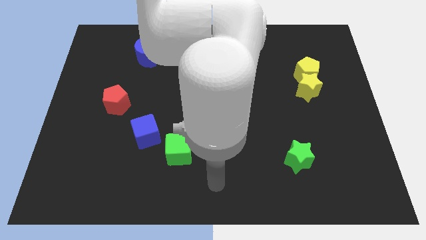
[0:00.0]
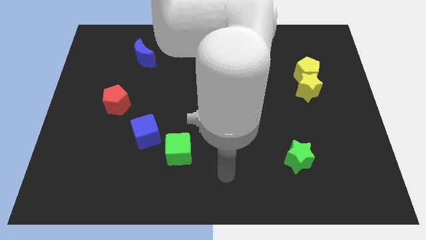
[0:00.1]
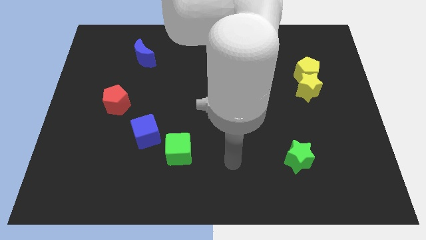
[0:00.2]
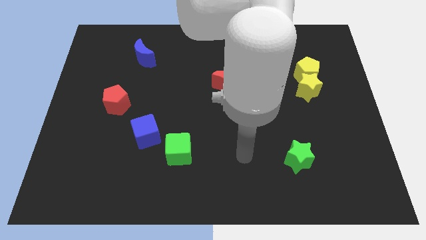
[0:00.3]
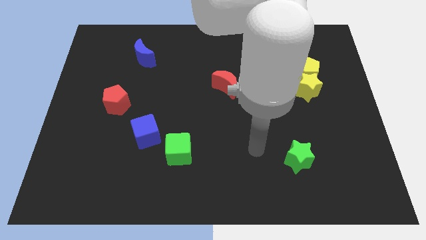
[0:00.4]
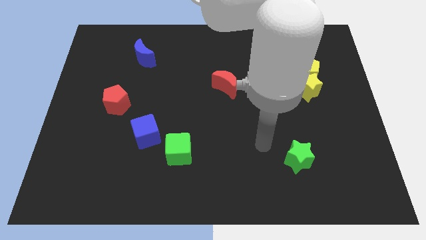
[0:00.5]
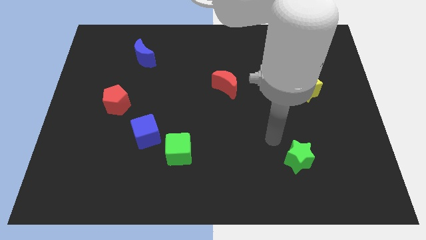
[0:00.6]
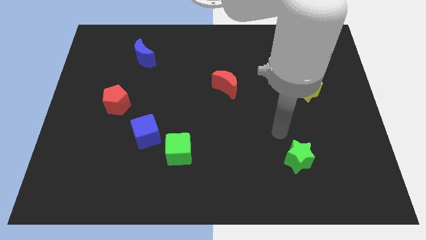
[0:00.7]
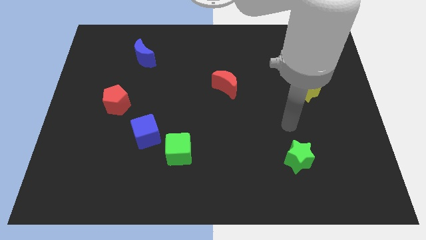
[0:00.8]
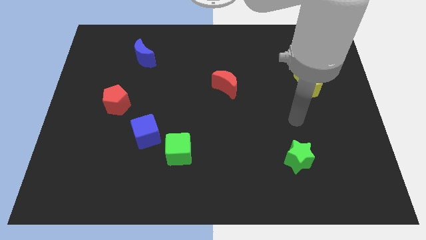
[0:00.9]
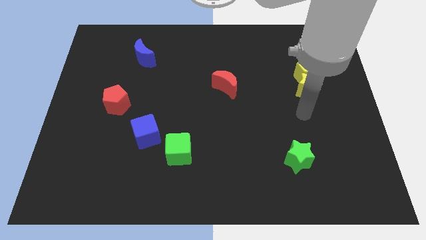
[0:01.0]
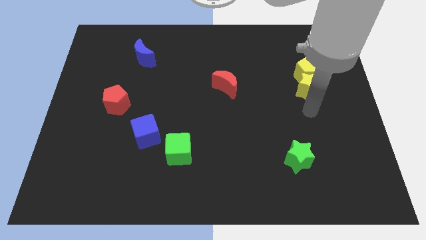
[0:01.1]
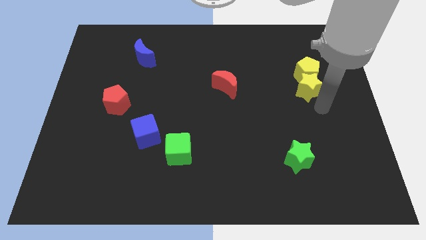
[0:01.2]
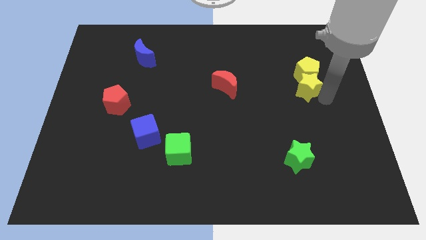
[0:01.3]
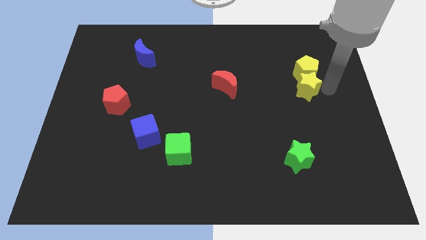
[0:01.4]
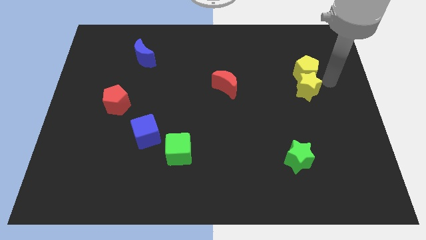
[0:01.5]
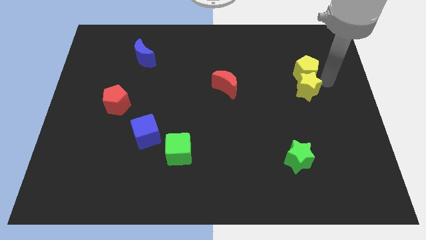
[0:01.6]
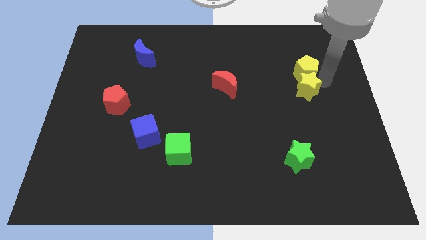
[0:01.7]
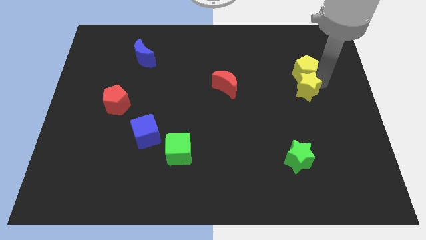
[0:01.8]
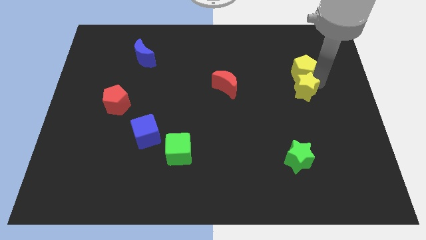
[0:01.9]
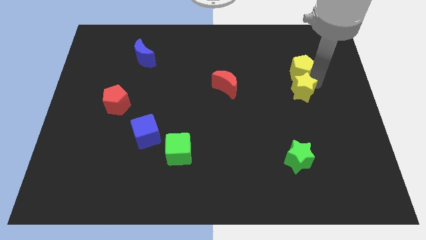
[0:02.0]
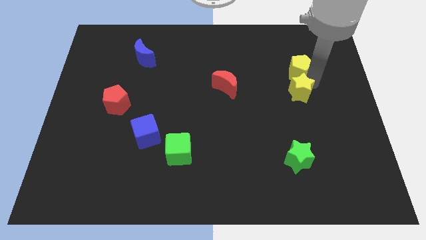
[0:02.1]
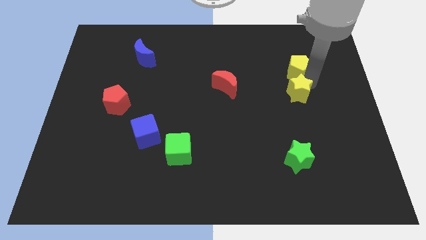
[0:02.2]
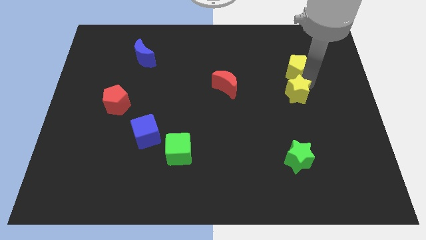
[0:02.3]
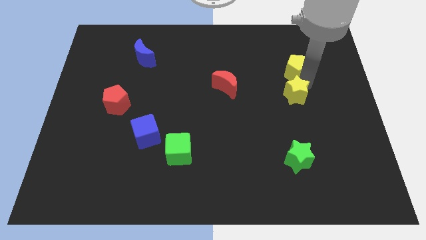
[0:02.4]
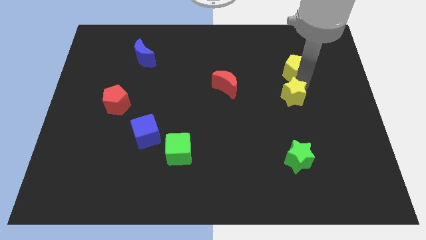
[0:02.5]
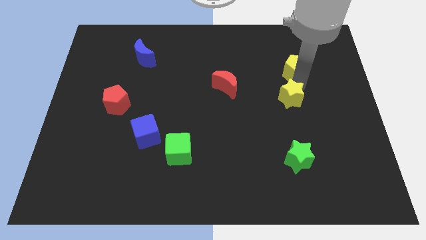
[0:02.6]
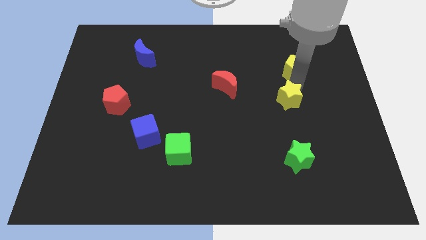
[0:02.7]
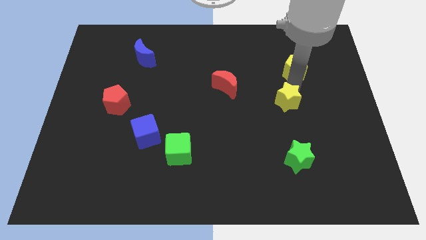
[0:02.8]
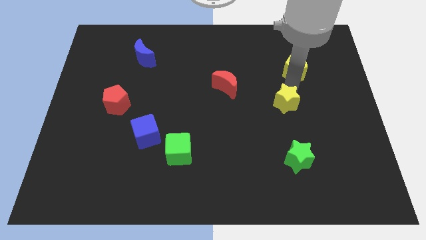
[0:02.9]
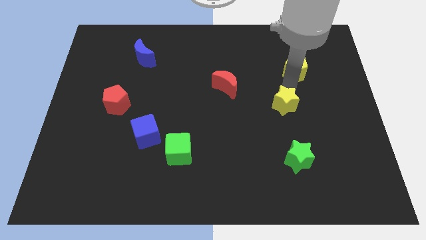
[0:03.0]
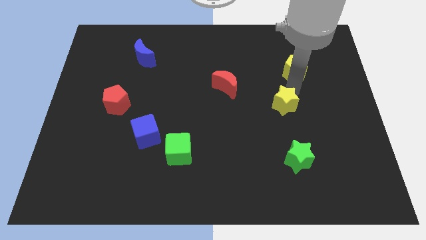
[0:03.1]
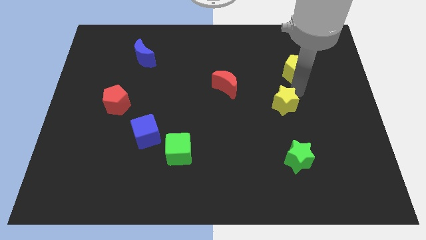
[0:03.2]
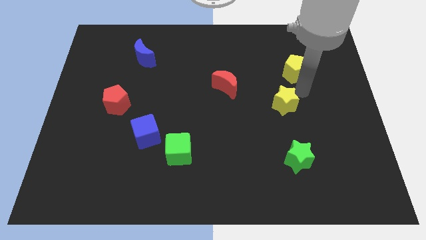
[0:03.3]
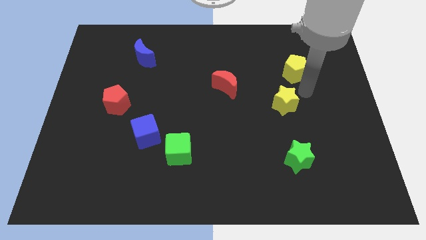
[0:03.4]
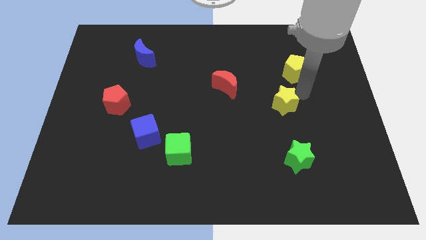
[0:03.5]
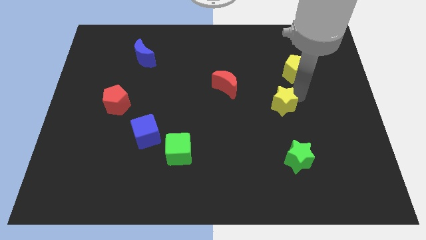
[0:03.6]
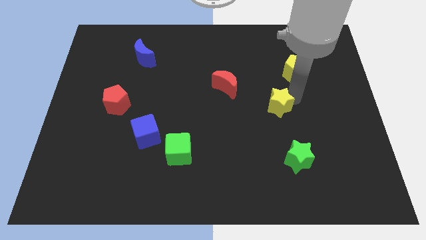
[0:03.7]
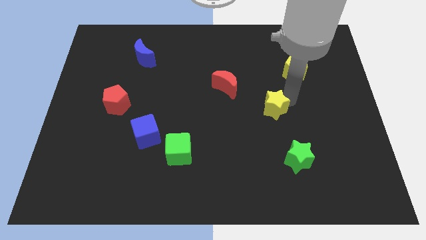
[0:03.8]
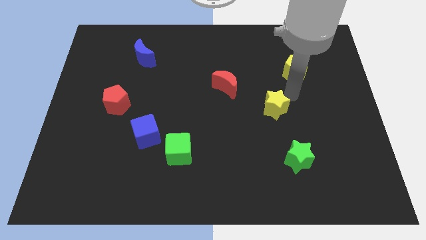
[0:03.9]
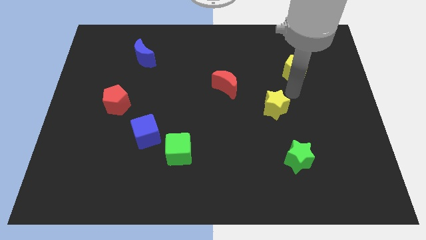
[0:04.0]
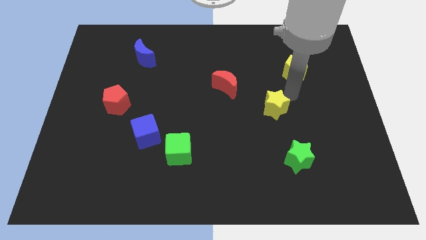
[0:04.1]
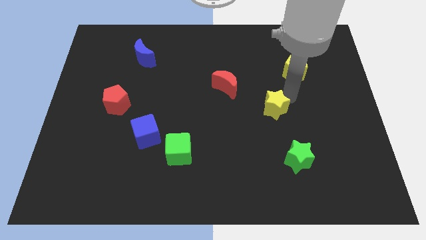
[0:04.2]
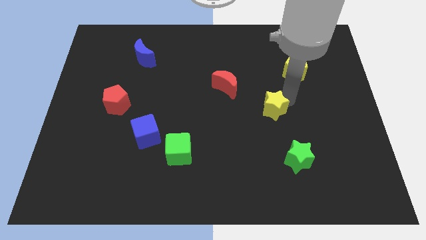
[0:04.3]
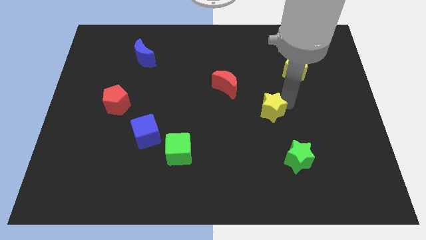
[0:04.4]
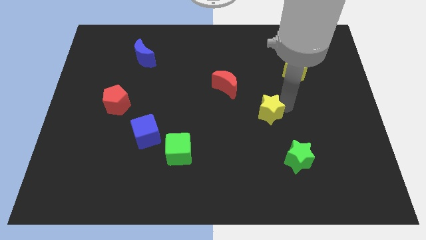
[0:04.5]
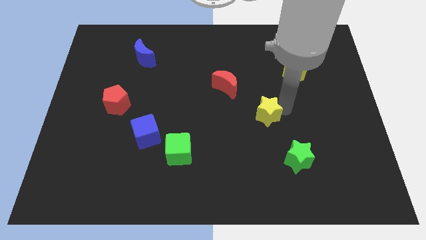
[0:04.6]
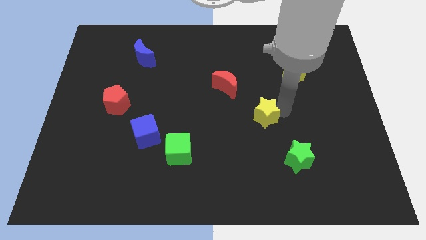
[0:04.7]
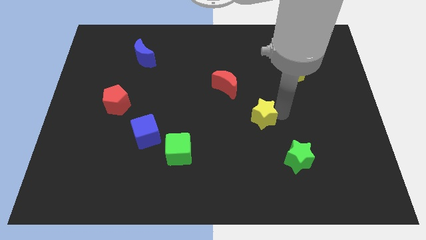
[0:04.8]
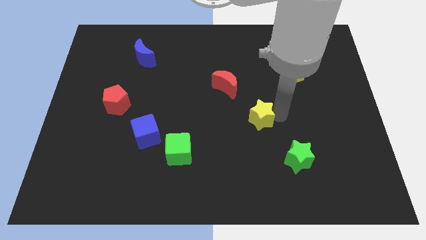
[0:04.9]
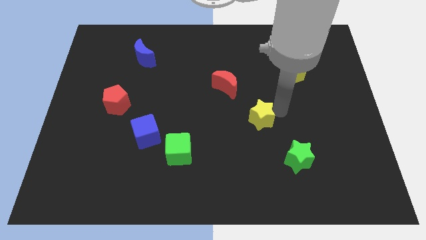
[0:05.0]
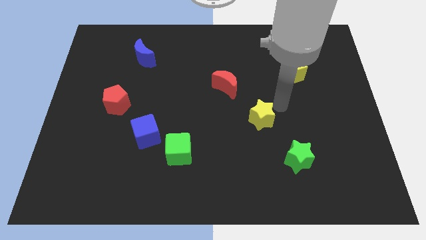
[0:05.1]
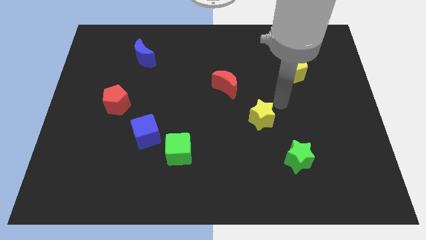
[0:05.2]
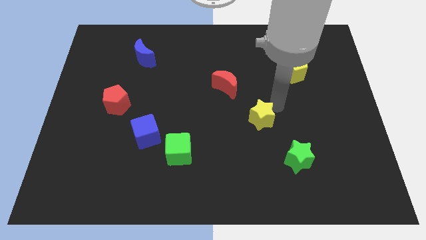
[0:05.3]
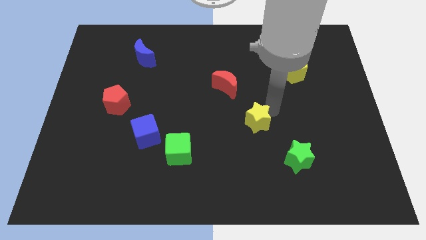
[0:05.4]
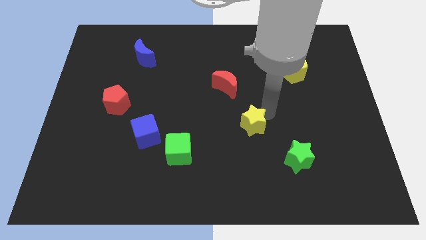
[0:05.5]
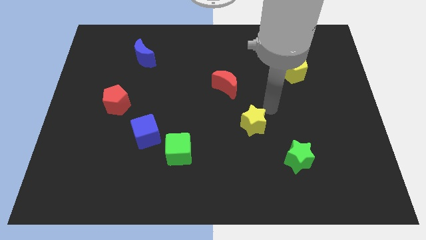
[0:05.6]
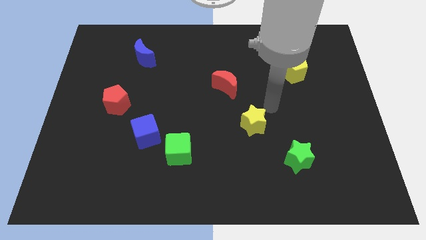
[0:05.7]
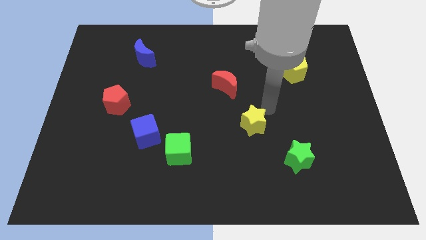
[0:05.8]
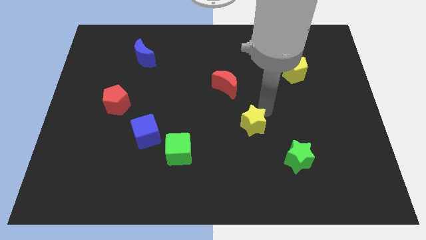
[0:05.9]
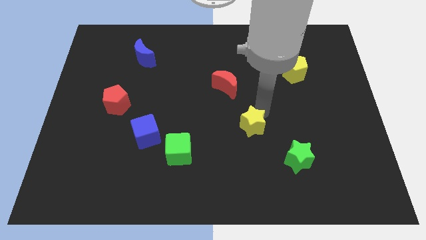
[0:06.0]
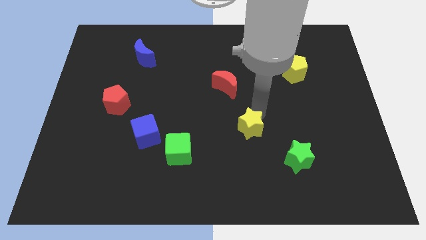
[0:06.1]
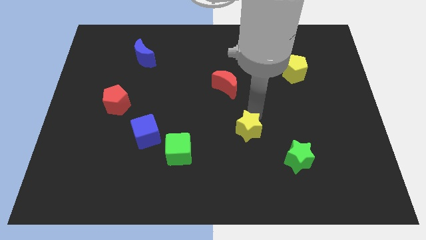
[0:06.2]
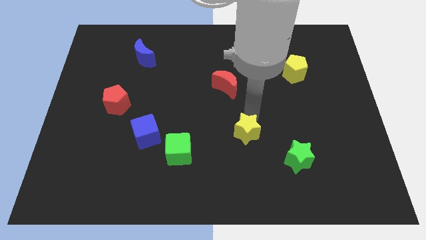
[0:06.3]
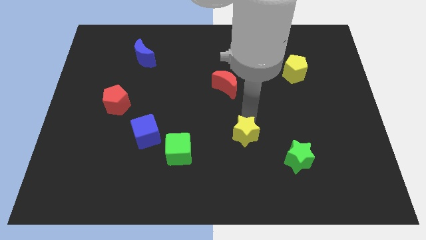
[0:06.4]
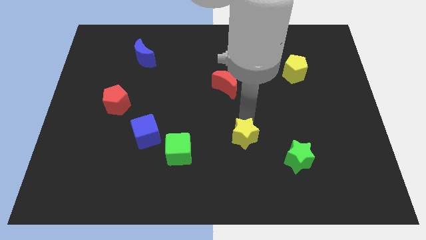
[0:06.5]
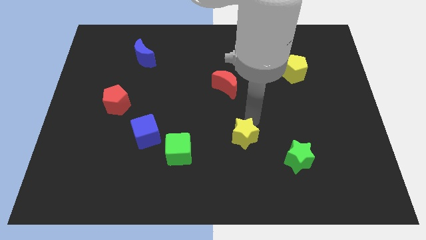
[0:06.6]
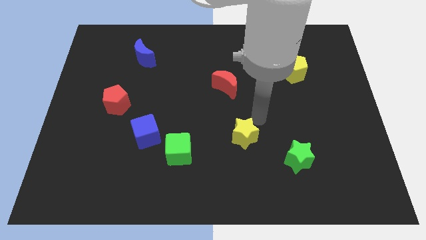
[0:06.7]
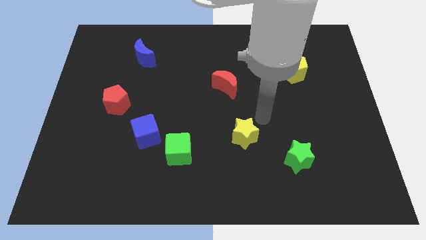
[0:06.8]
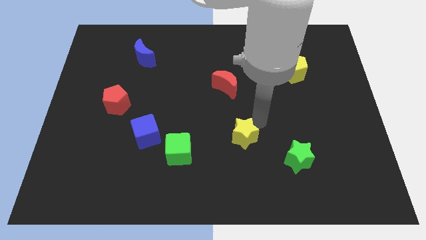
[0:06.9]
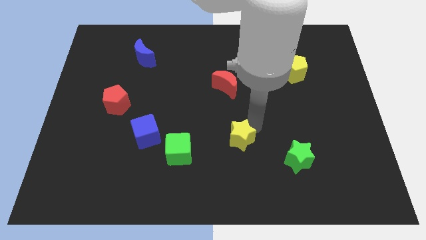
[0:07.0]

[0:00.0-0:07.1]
push the yellow star to the right side of the green cube
